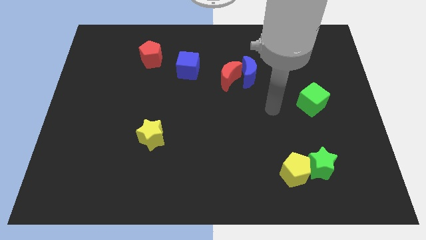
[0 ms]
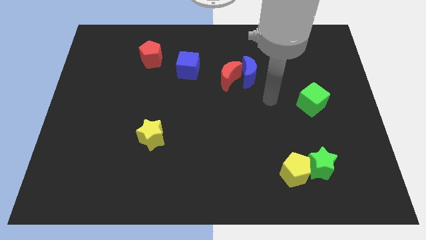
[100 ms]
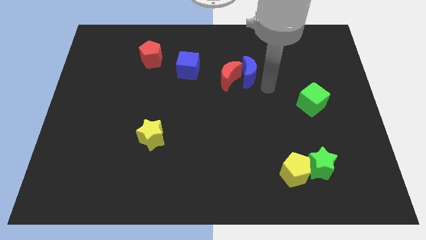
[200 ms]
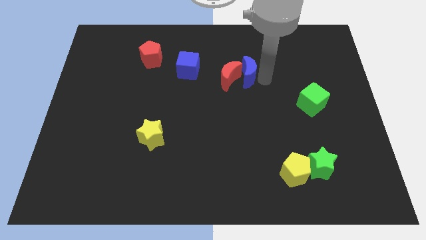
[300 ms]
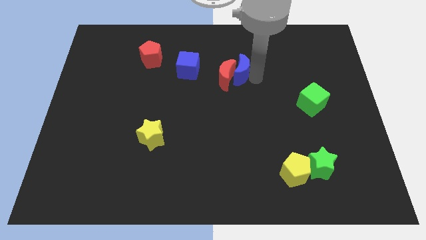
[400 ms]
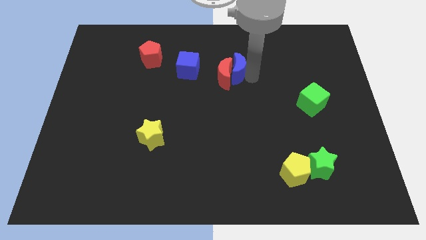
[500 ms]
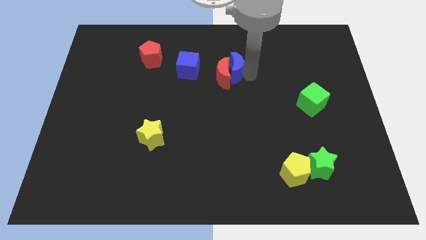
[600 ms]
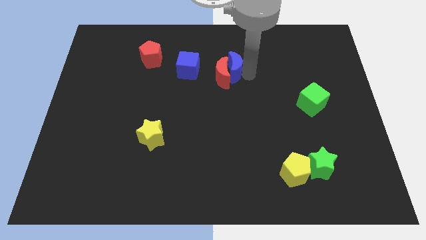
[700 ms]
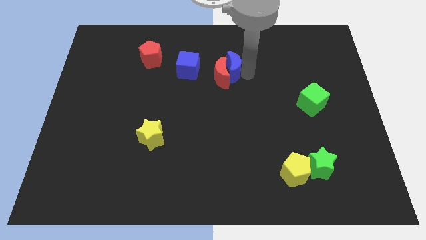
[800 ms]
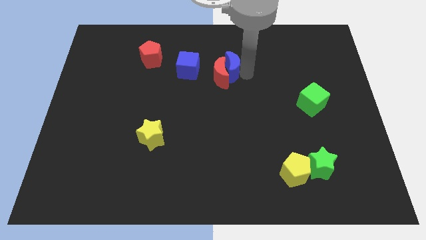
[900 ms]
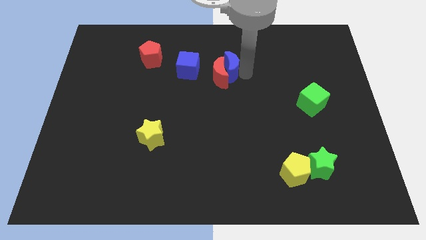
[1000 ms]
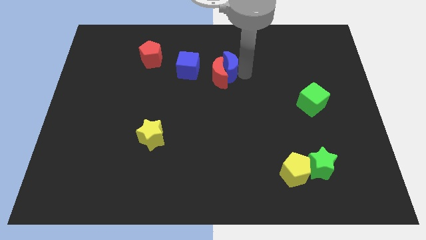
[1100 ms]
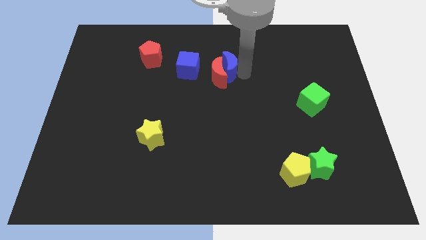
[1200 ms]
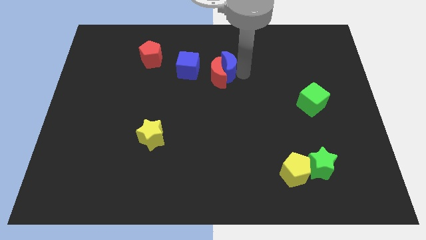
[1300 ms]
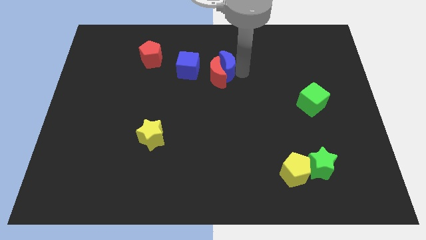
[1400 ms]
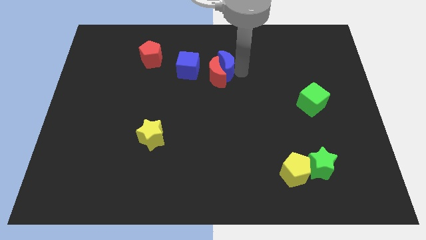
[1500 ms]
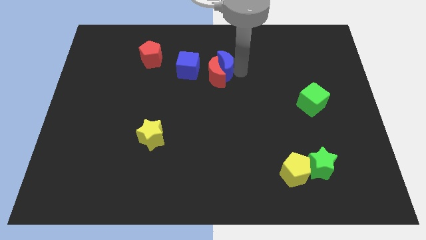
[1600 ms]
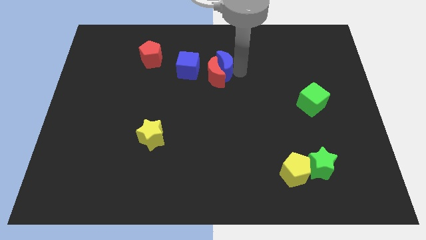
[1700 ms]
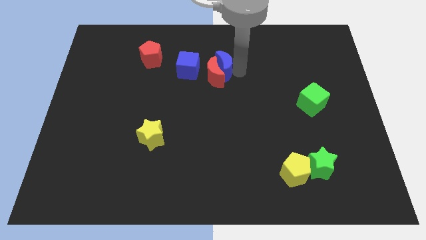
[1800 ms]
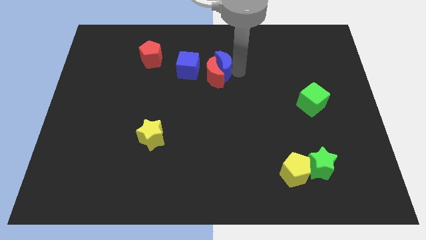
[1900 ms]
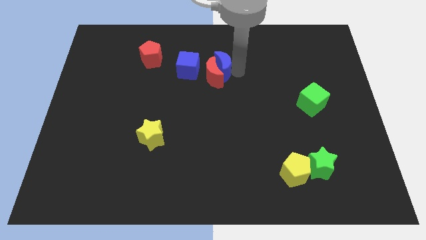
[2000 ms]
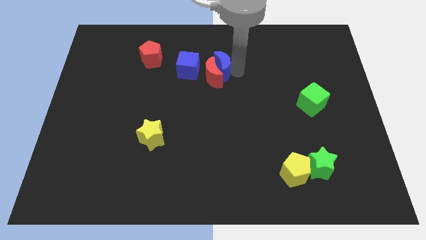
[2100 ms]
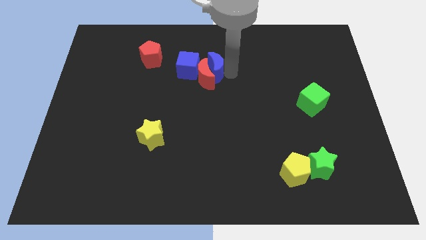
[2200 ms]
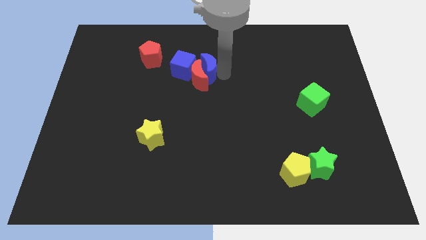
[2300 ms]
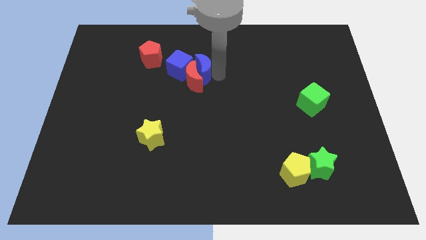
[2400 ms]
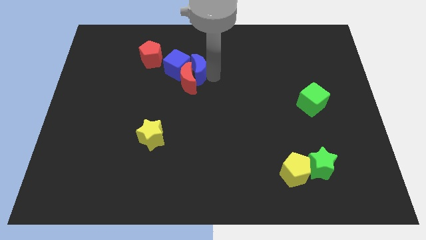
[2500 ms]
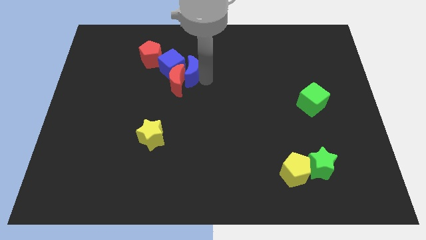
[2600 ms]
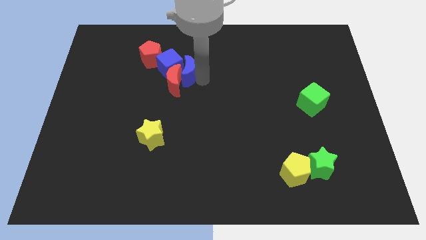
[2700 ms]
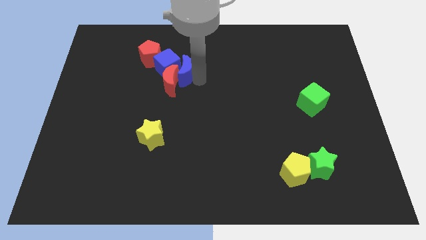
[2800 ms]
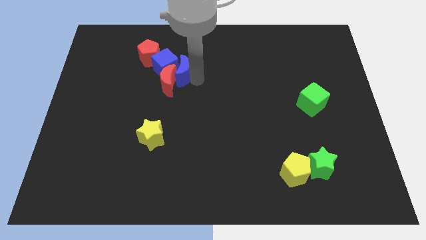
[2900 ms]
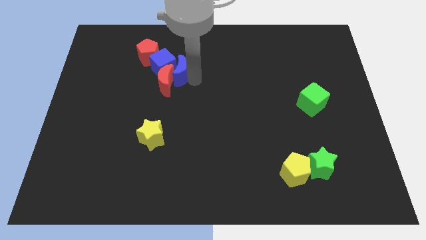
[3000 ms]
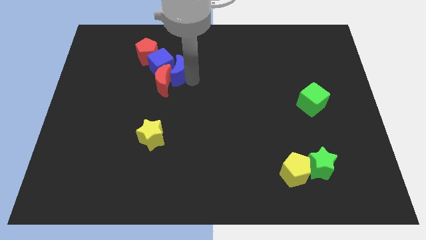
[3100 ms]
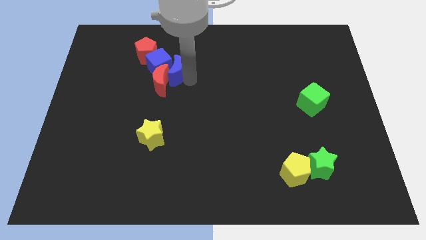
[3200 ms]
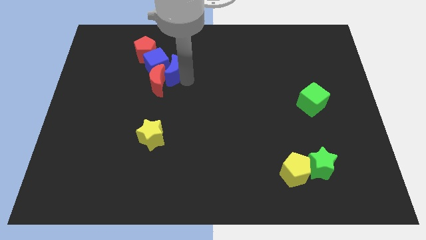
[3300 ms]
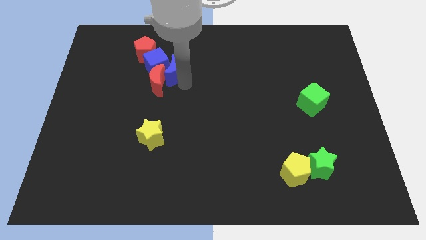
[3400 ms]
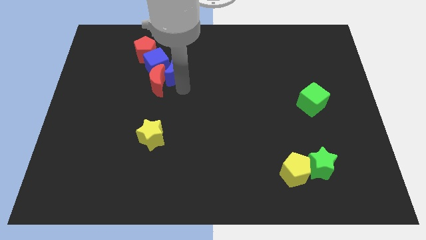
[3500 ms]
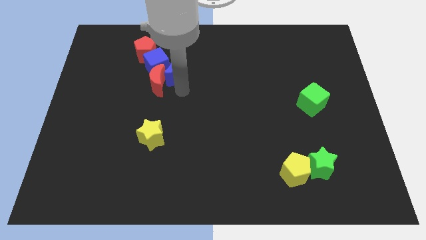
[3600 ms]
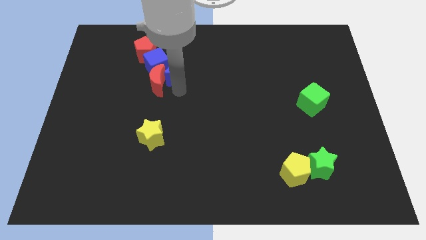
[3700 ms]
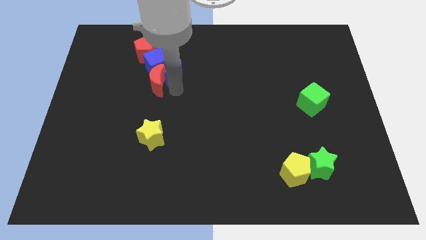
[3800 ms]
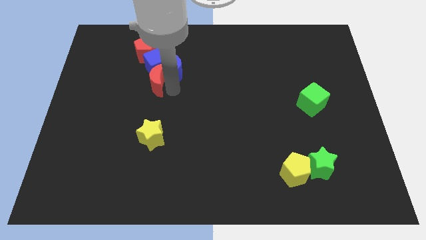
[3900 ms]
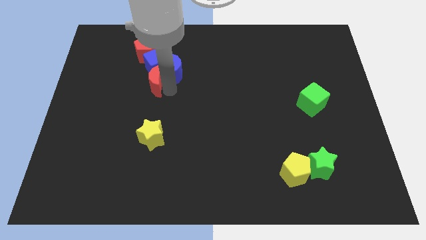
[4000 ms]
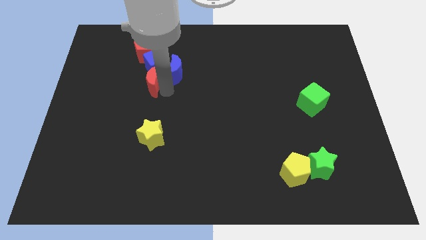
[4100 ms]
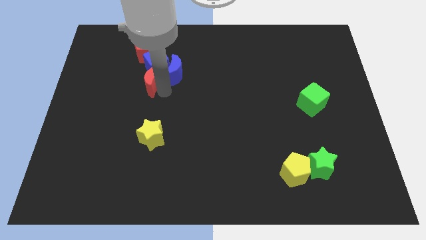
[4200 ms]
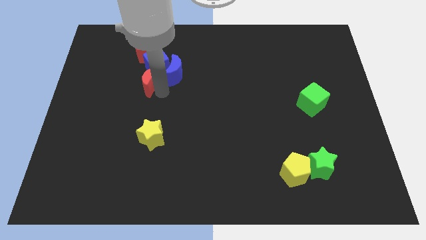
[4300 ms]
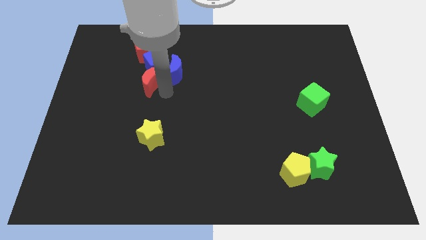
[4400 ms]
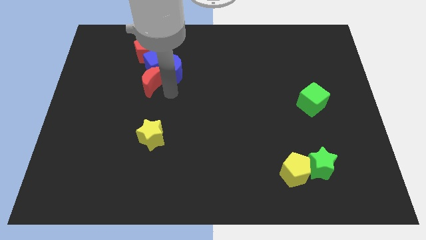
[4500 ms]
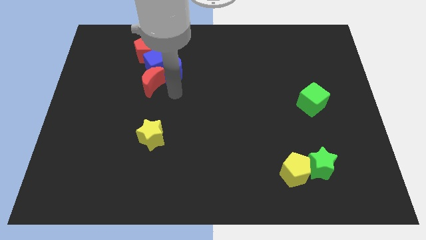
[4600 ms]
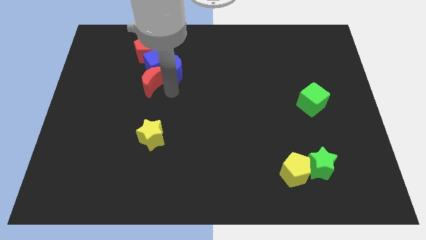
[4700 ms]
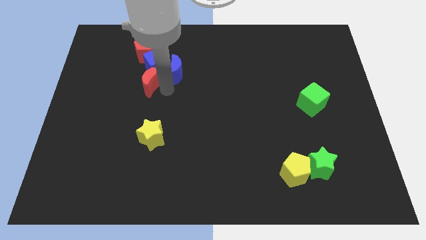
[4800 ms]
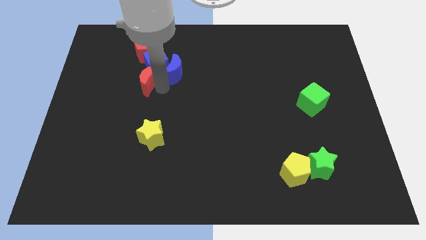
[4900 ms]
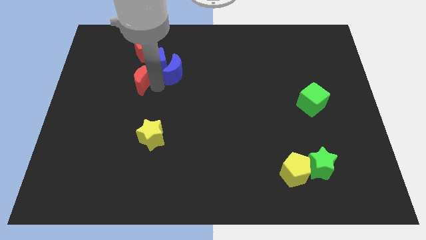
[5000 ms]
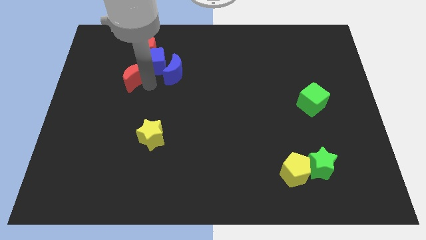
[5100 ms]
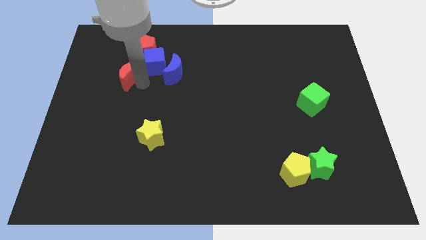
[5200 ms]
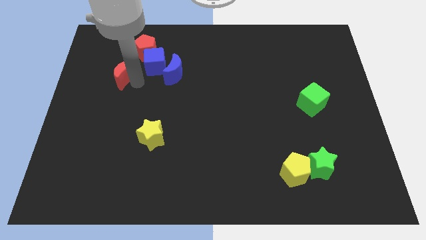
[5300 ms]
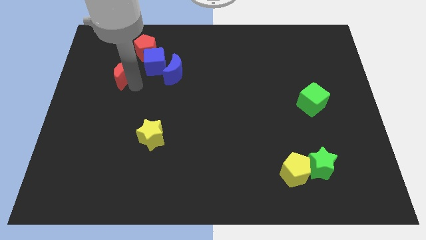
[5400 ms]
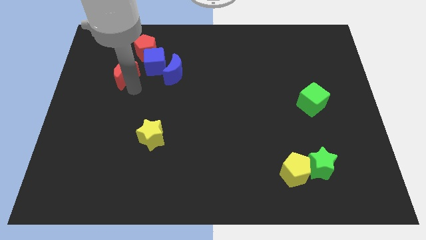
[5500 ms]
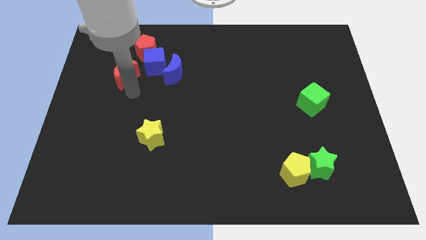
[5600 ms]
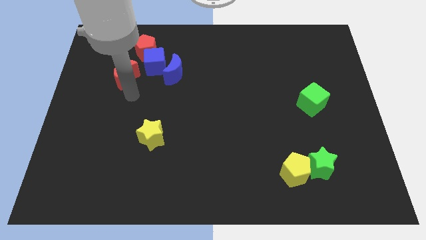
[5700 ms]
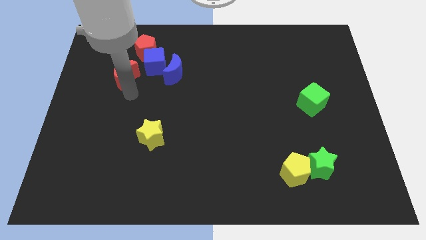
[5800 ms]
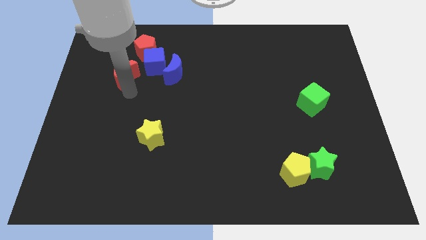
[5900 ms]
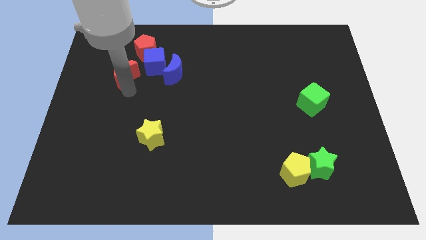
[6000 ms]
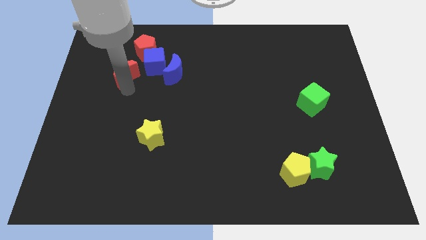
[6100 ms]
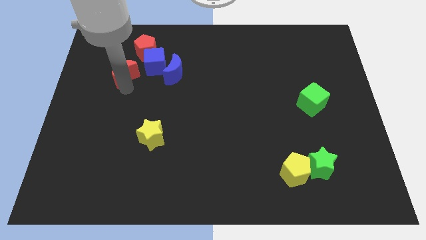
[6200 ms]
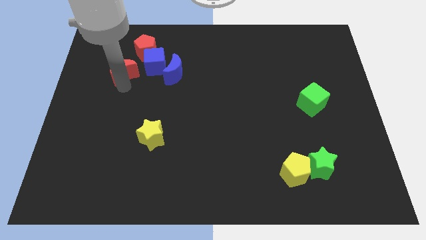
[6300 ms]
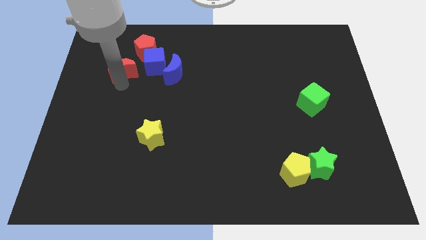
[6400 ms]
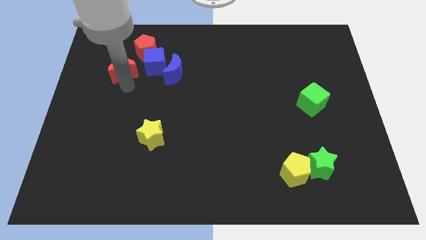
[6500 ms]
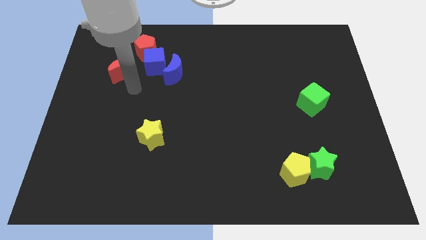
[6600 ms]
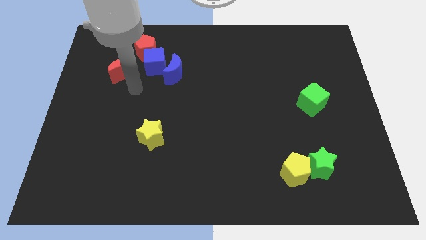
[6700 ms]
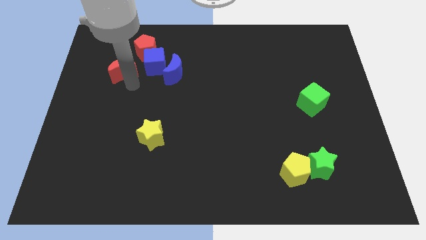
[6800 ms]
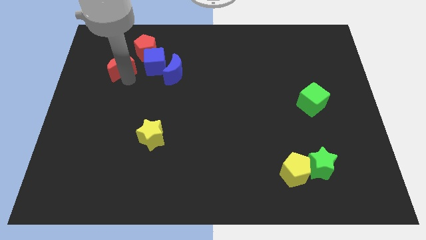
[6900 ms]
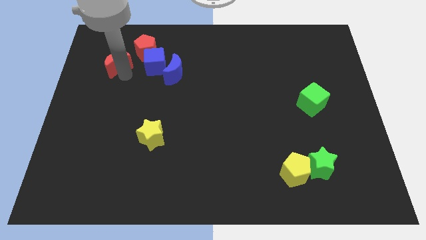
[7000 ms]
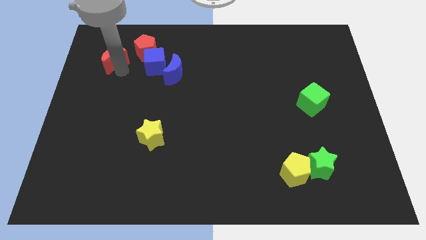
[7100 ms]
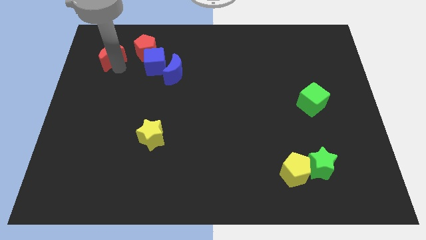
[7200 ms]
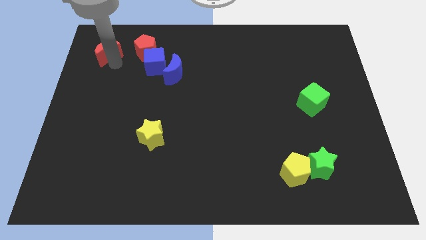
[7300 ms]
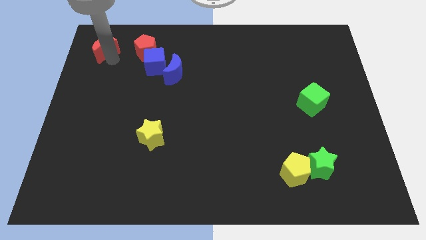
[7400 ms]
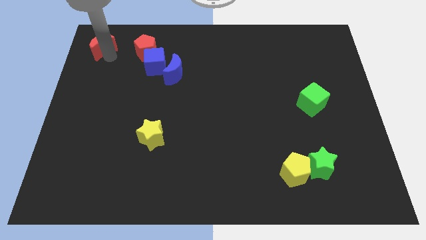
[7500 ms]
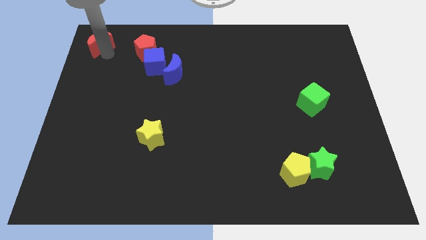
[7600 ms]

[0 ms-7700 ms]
move the red moon to the top left of the board
